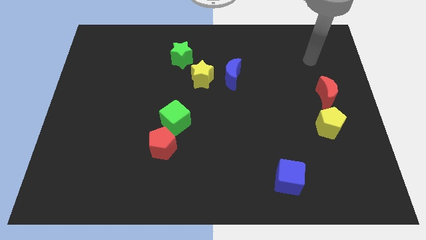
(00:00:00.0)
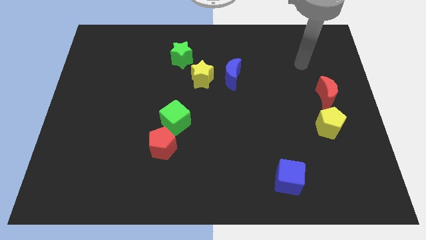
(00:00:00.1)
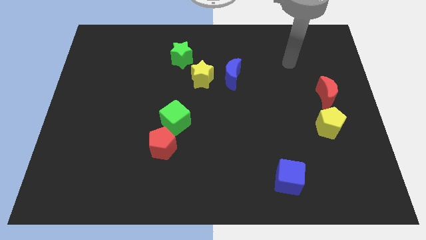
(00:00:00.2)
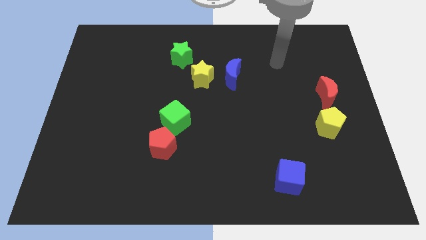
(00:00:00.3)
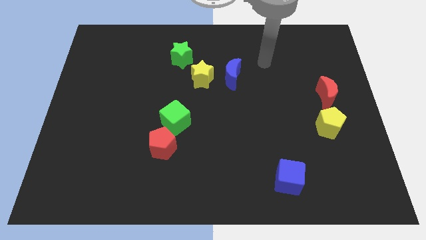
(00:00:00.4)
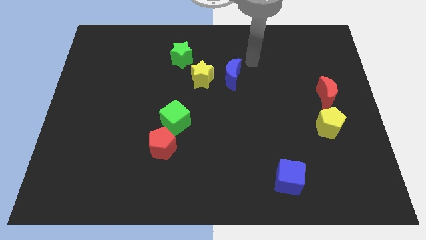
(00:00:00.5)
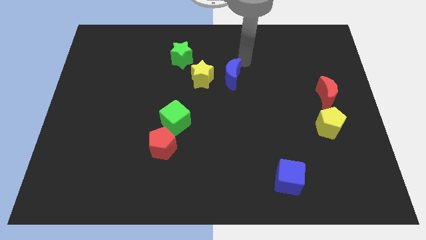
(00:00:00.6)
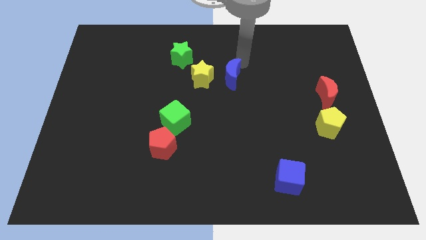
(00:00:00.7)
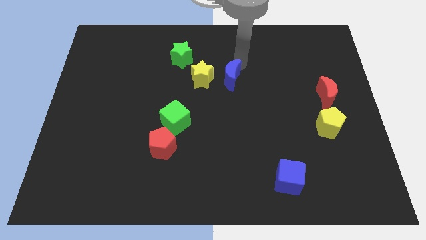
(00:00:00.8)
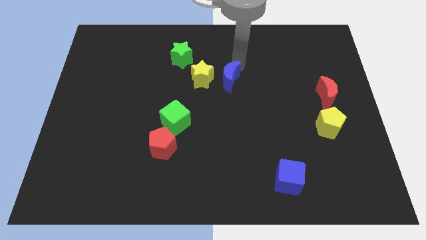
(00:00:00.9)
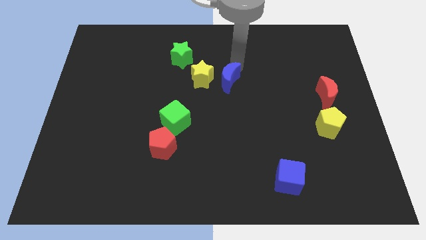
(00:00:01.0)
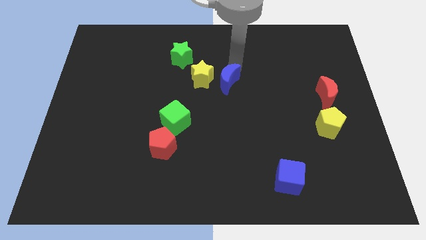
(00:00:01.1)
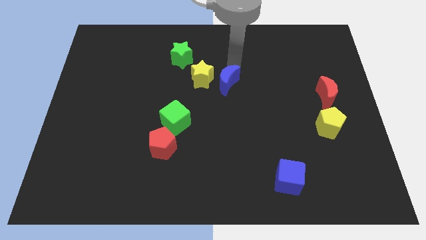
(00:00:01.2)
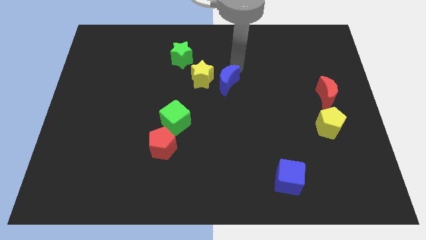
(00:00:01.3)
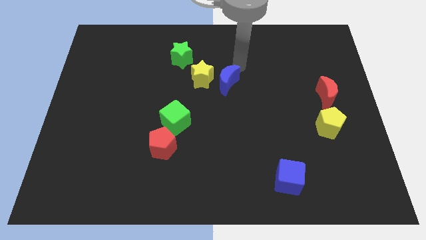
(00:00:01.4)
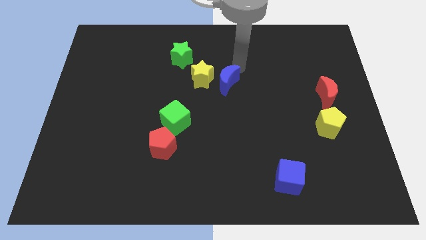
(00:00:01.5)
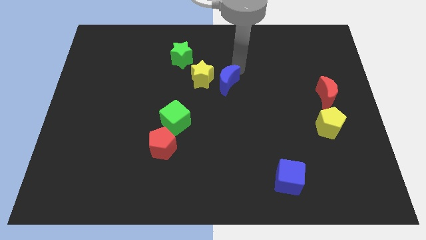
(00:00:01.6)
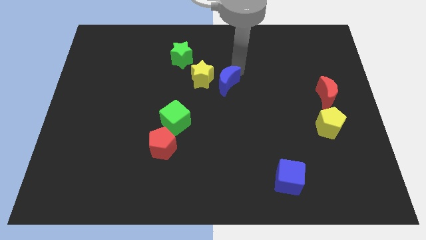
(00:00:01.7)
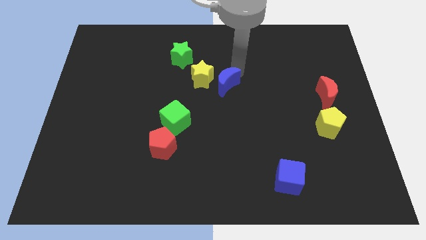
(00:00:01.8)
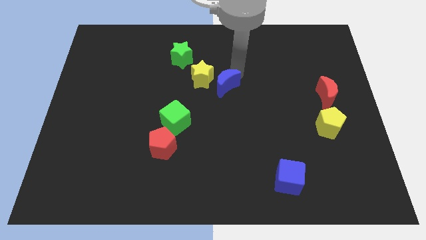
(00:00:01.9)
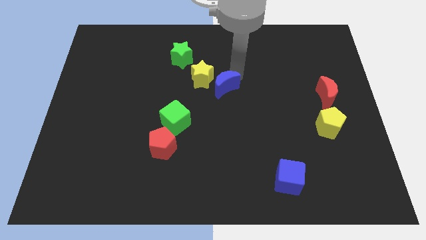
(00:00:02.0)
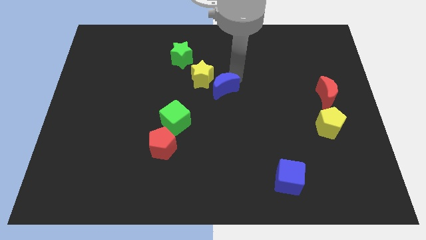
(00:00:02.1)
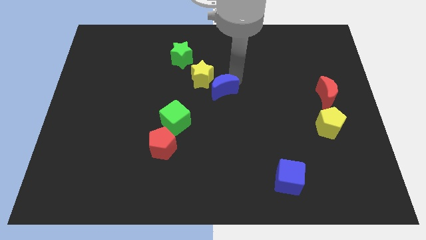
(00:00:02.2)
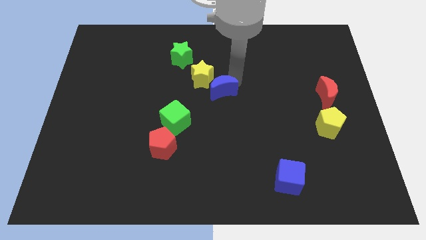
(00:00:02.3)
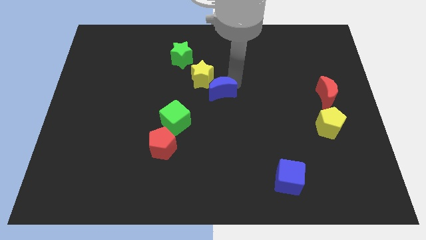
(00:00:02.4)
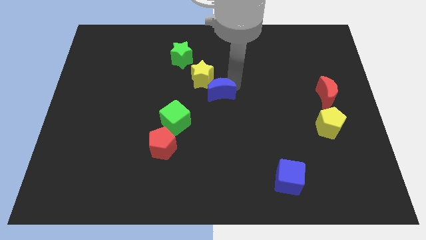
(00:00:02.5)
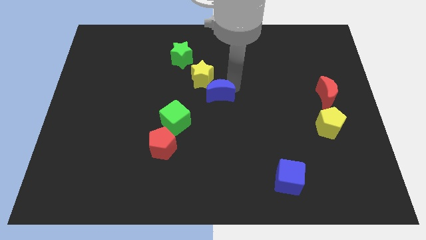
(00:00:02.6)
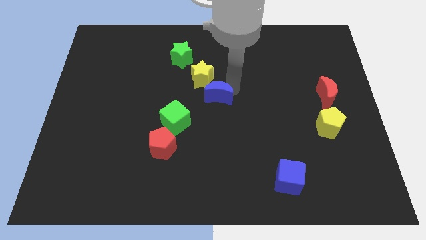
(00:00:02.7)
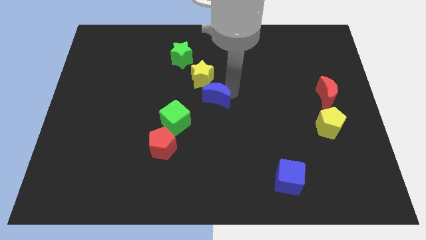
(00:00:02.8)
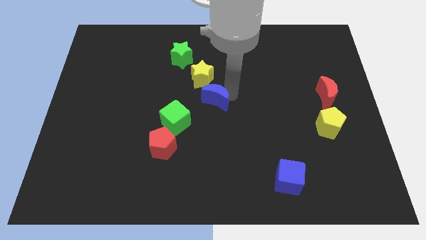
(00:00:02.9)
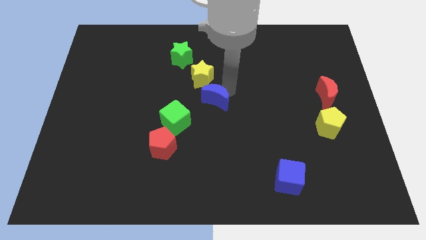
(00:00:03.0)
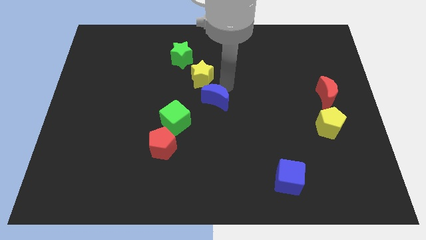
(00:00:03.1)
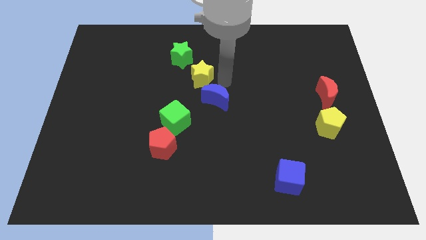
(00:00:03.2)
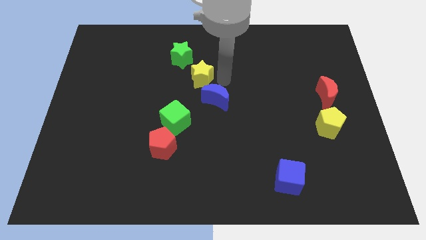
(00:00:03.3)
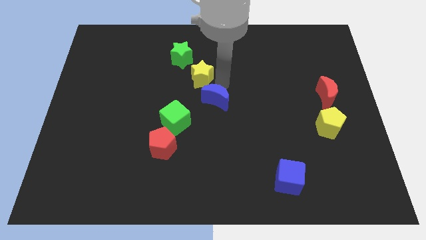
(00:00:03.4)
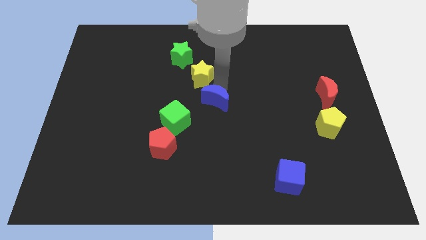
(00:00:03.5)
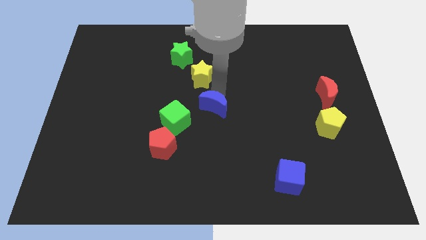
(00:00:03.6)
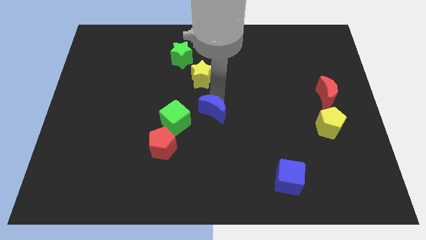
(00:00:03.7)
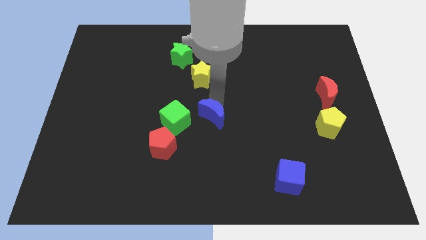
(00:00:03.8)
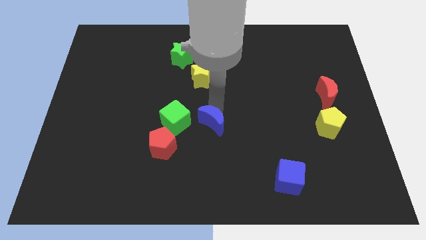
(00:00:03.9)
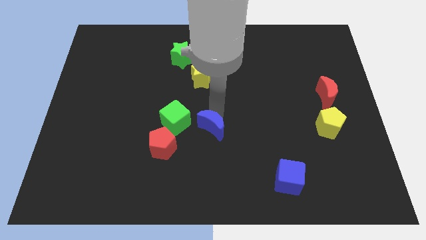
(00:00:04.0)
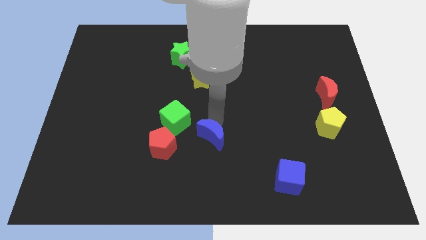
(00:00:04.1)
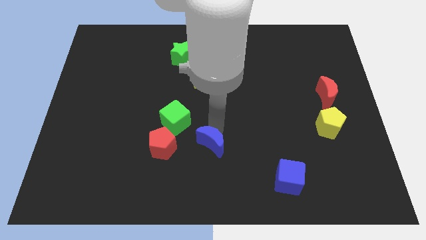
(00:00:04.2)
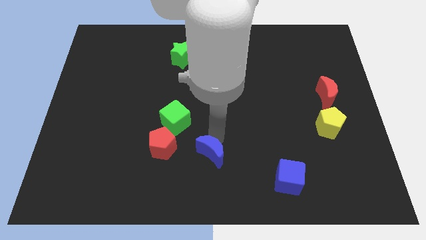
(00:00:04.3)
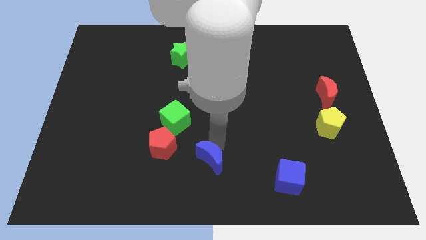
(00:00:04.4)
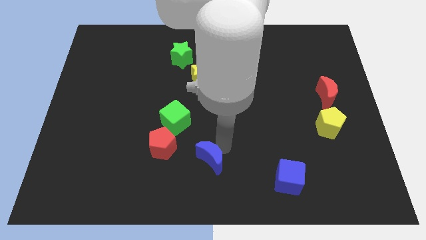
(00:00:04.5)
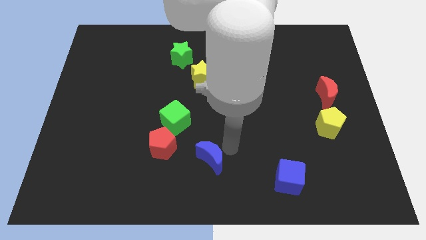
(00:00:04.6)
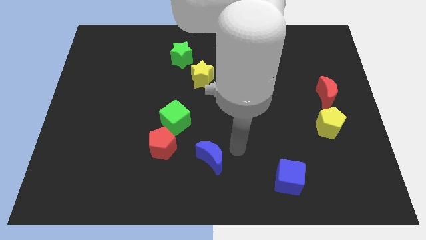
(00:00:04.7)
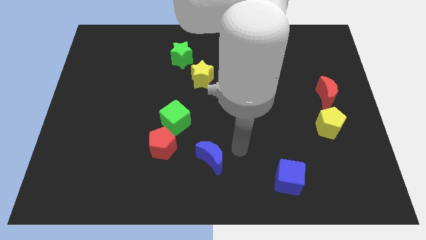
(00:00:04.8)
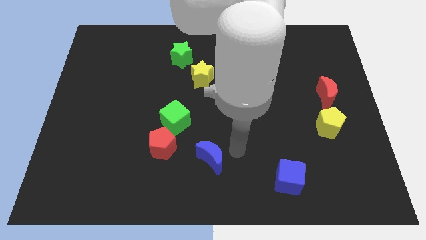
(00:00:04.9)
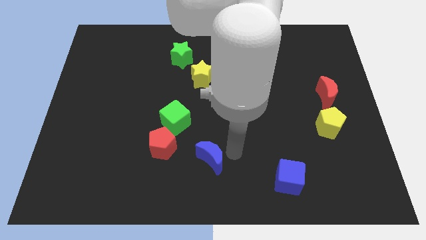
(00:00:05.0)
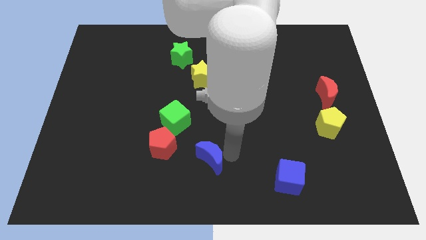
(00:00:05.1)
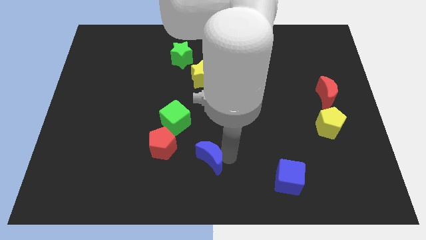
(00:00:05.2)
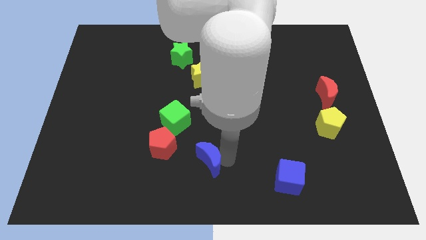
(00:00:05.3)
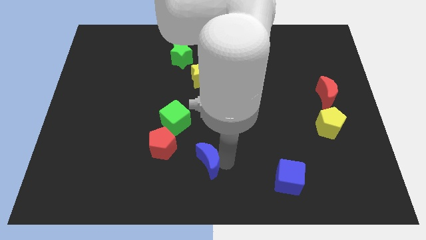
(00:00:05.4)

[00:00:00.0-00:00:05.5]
move the blue moon to the bottom right of the red pentagon

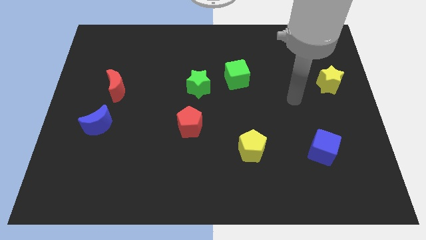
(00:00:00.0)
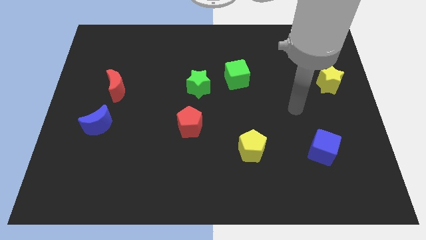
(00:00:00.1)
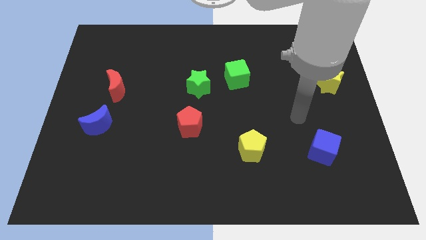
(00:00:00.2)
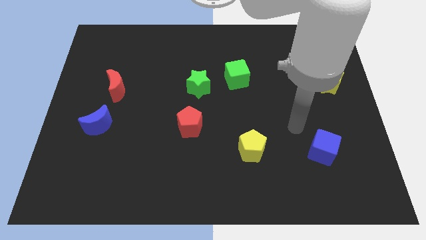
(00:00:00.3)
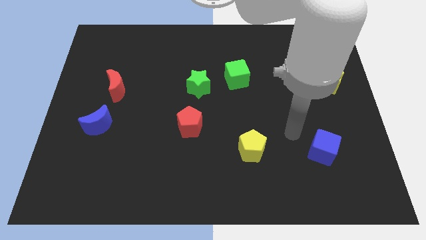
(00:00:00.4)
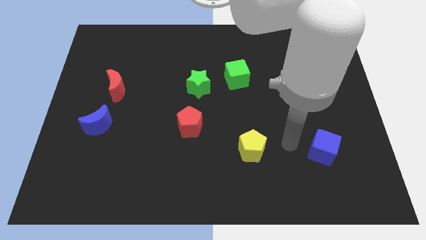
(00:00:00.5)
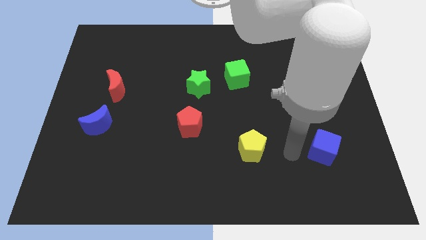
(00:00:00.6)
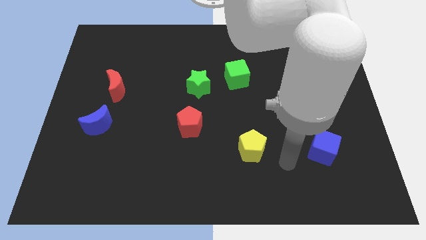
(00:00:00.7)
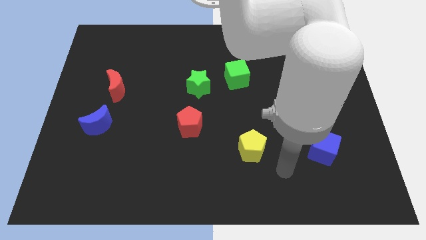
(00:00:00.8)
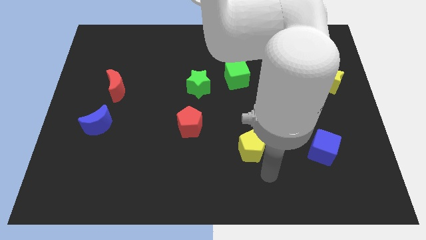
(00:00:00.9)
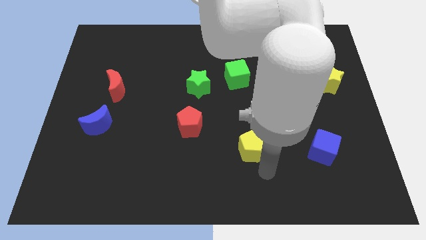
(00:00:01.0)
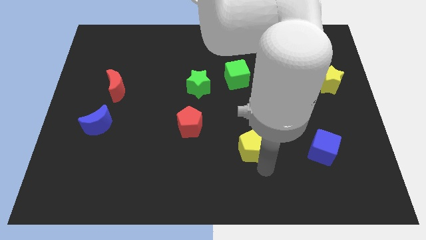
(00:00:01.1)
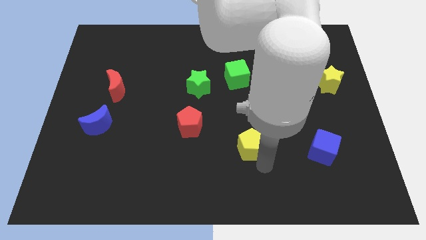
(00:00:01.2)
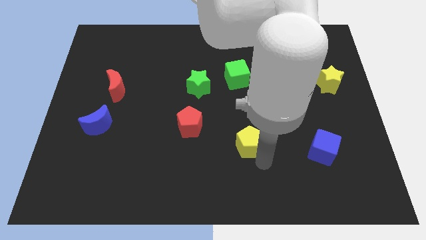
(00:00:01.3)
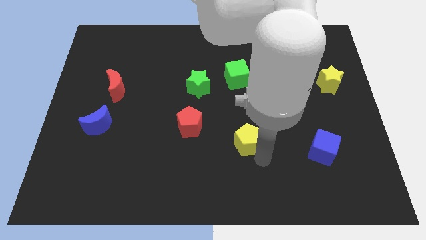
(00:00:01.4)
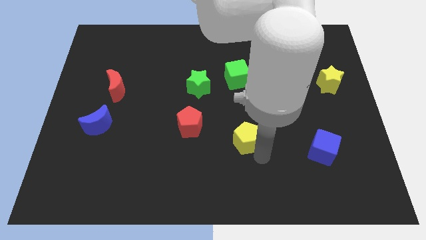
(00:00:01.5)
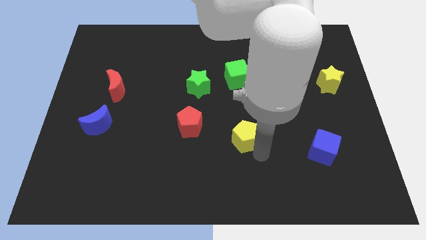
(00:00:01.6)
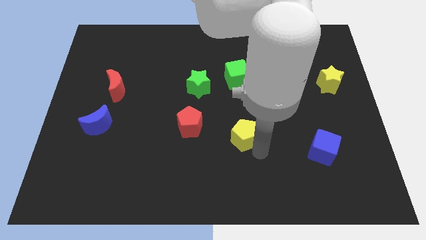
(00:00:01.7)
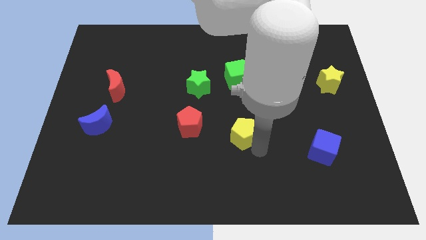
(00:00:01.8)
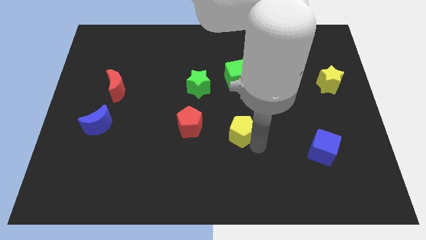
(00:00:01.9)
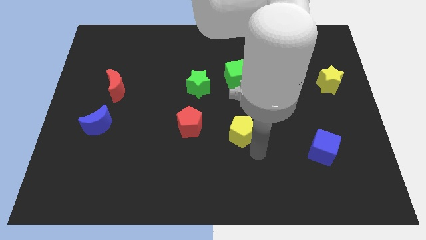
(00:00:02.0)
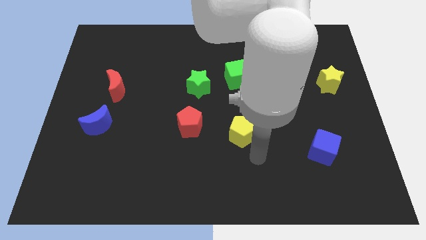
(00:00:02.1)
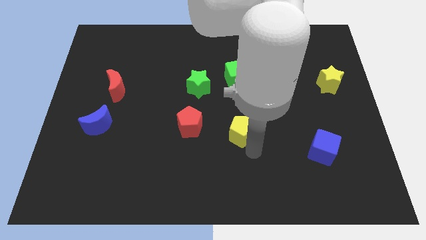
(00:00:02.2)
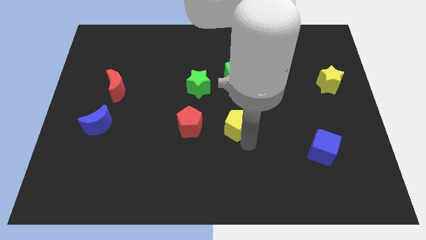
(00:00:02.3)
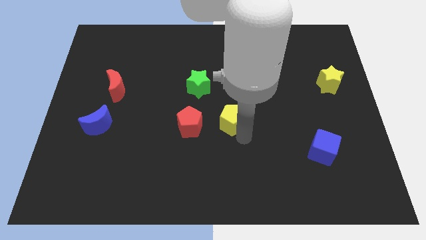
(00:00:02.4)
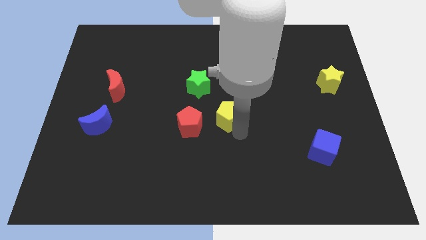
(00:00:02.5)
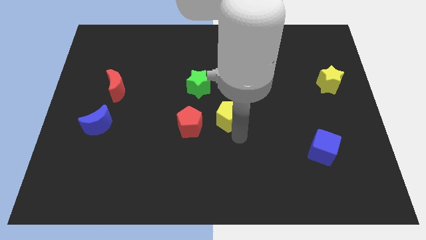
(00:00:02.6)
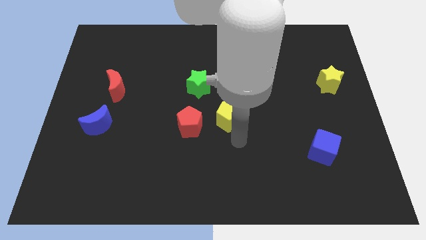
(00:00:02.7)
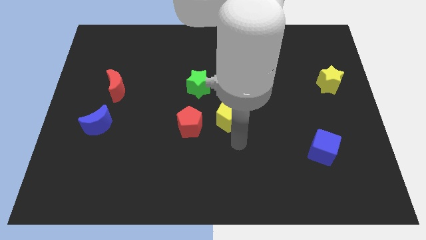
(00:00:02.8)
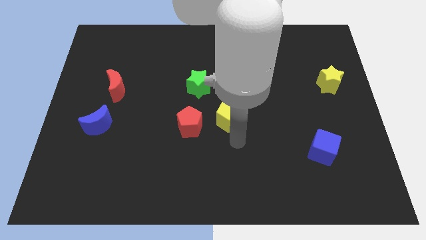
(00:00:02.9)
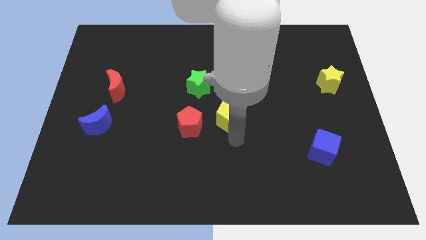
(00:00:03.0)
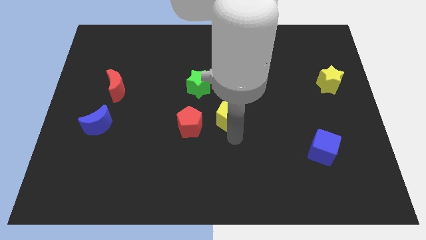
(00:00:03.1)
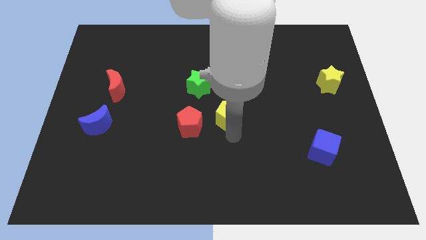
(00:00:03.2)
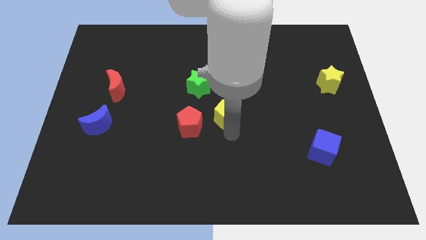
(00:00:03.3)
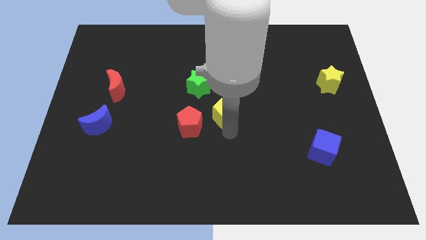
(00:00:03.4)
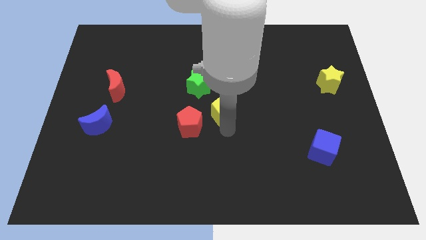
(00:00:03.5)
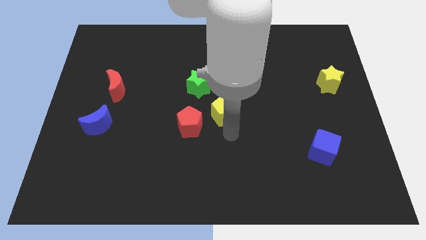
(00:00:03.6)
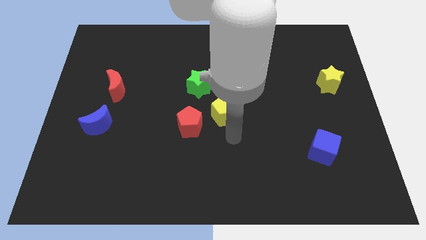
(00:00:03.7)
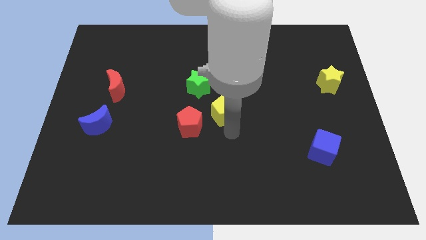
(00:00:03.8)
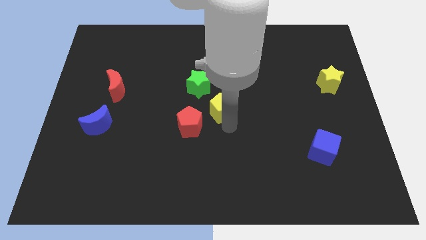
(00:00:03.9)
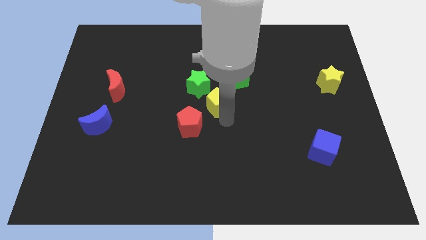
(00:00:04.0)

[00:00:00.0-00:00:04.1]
put the yellow pentagon to the bottom left side of the green cube
